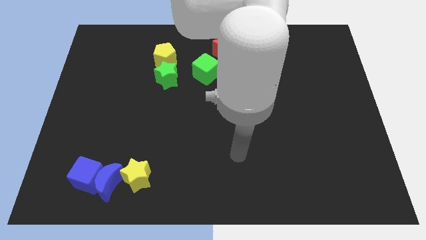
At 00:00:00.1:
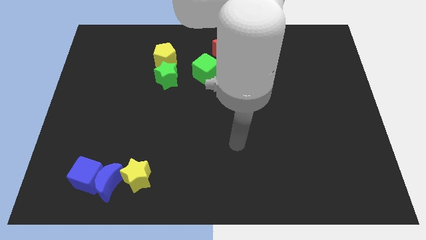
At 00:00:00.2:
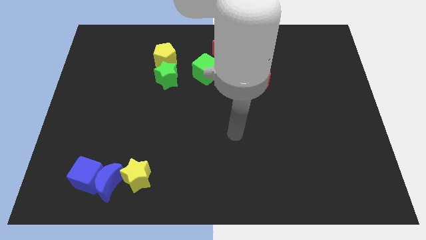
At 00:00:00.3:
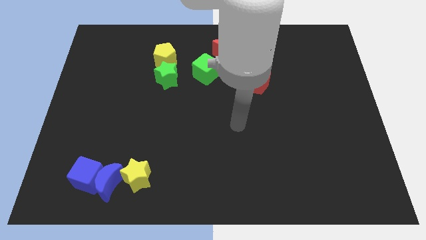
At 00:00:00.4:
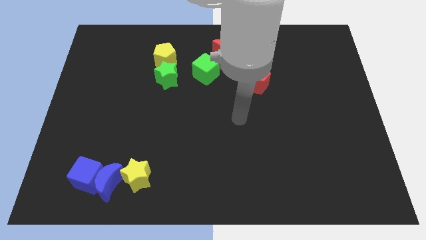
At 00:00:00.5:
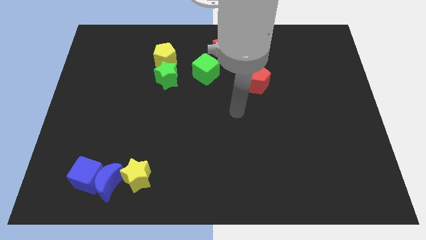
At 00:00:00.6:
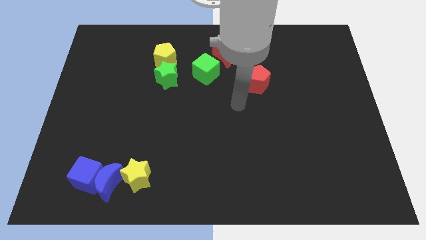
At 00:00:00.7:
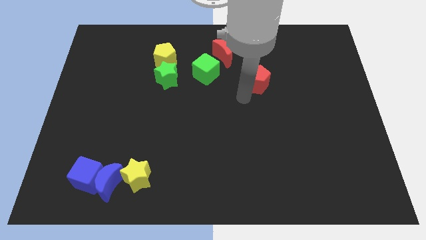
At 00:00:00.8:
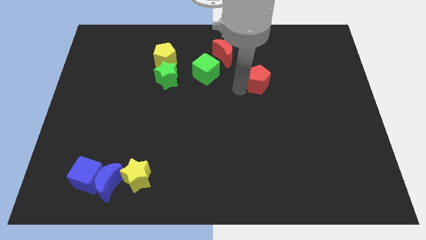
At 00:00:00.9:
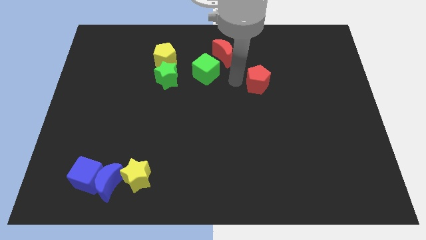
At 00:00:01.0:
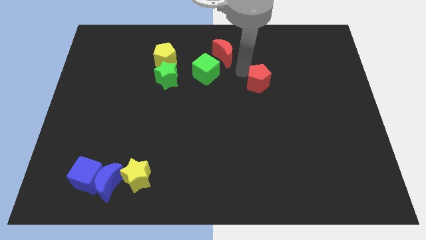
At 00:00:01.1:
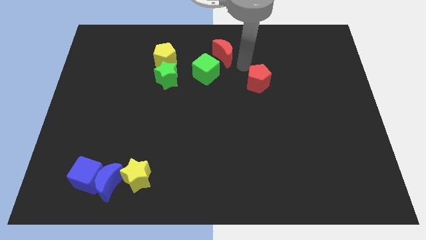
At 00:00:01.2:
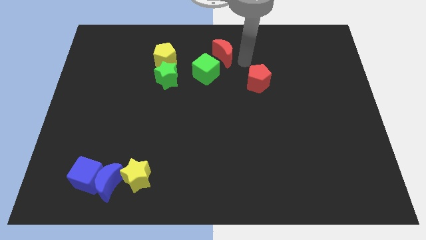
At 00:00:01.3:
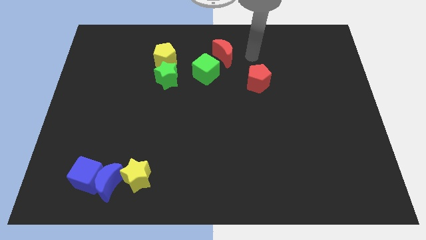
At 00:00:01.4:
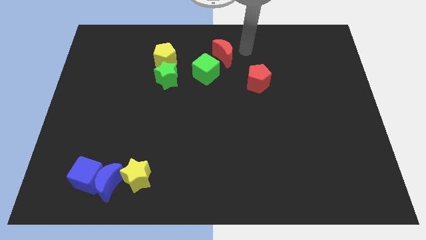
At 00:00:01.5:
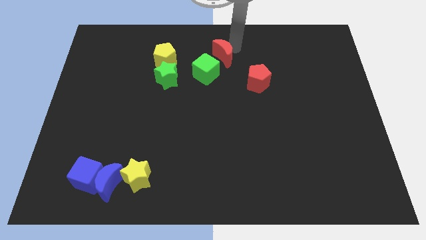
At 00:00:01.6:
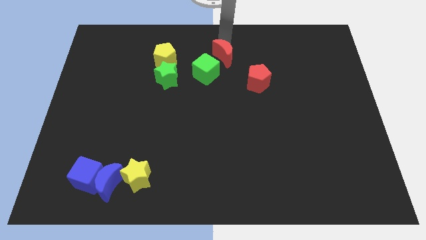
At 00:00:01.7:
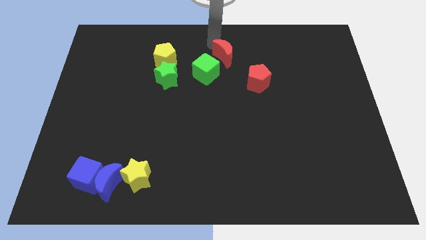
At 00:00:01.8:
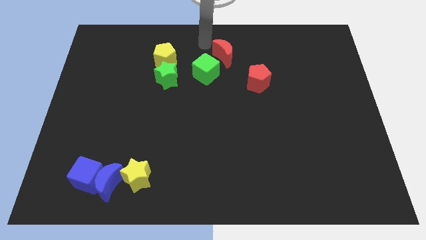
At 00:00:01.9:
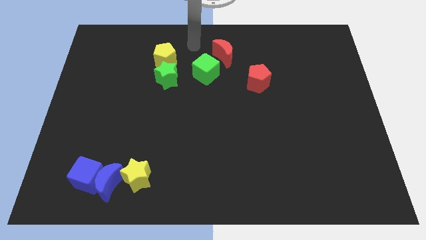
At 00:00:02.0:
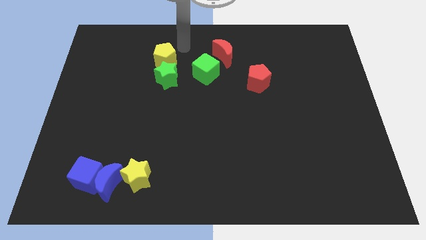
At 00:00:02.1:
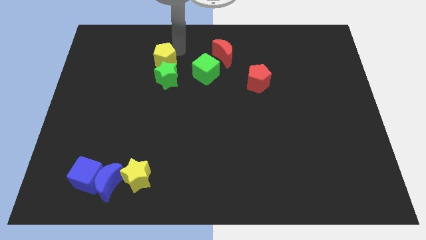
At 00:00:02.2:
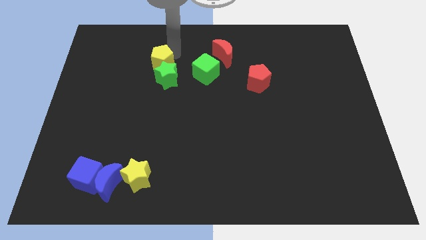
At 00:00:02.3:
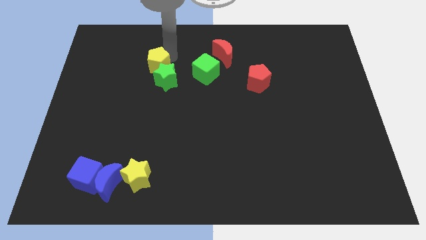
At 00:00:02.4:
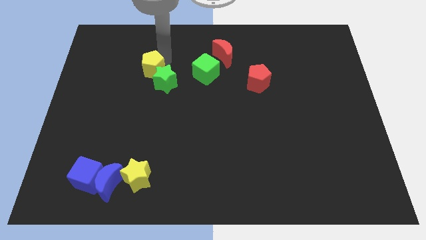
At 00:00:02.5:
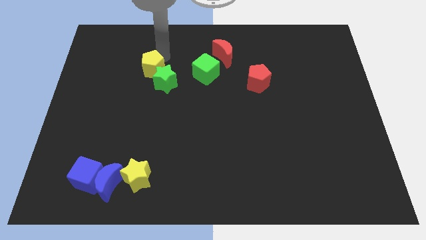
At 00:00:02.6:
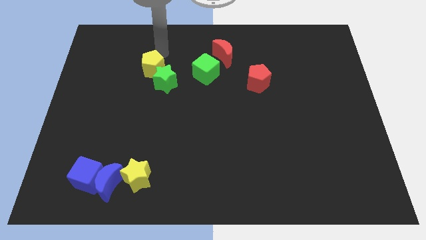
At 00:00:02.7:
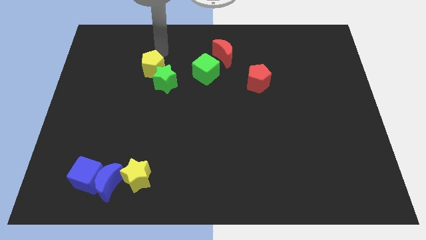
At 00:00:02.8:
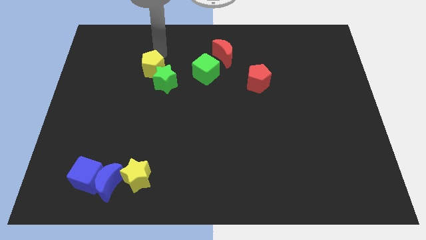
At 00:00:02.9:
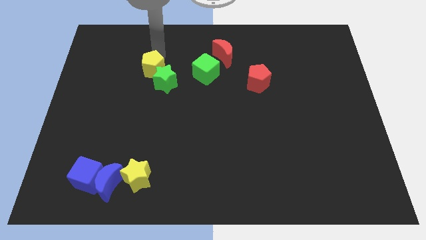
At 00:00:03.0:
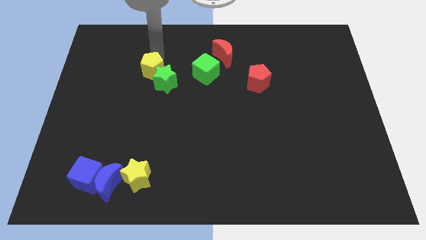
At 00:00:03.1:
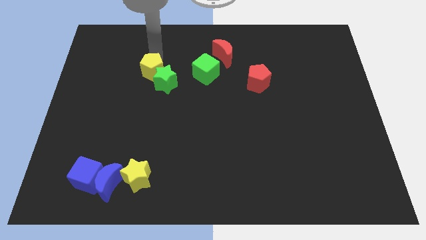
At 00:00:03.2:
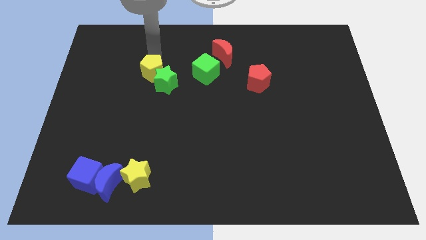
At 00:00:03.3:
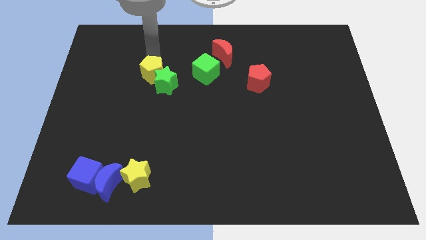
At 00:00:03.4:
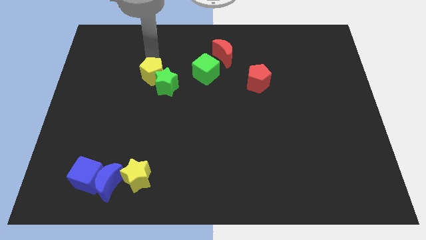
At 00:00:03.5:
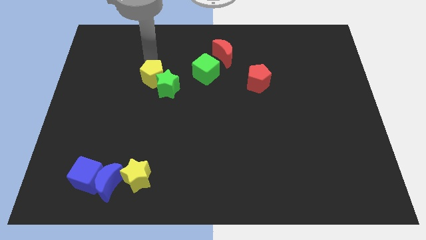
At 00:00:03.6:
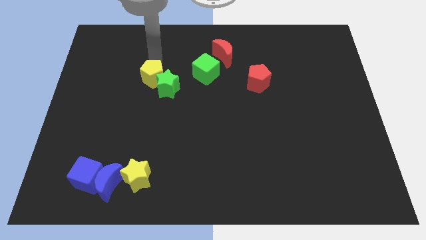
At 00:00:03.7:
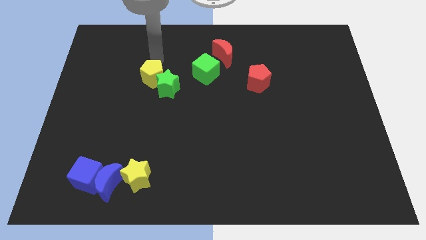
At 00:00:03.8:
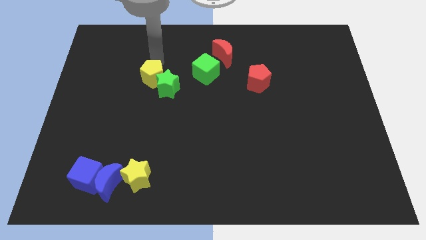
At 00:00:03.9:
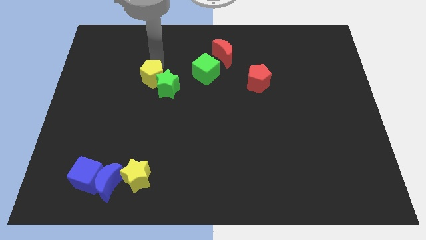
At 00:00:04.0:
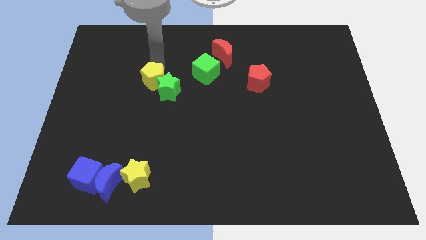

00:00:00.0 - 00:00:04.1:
move the yellow pentagon down somewhat

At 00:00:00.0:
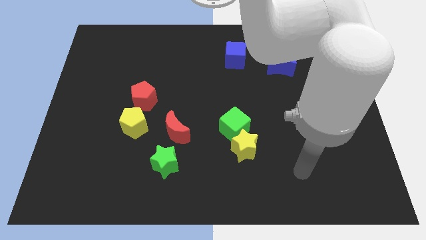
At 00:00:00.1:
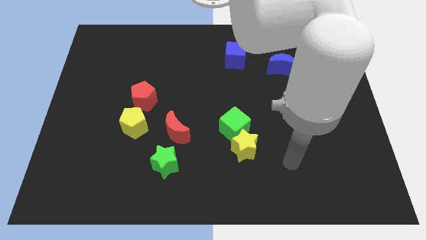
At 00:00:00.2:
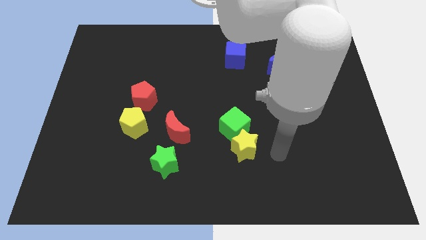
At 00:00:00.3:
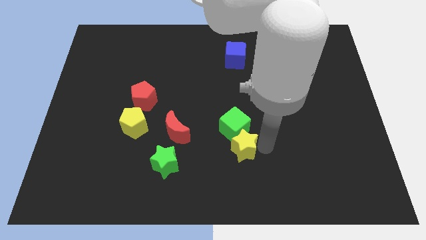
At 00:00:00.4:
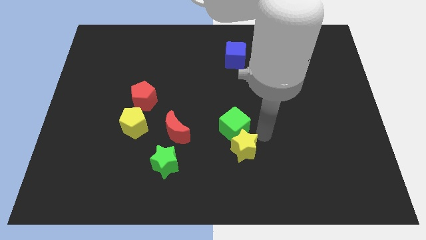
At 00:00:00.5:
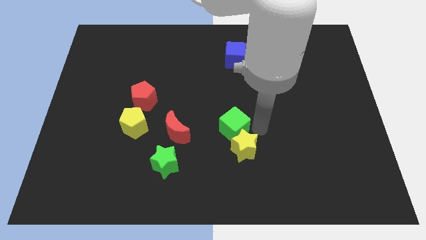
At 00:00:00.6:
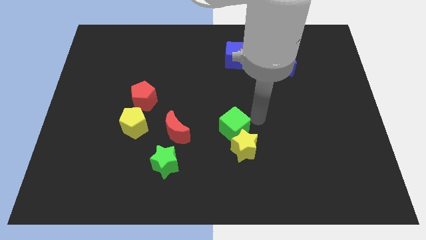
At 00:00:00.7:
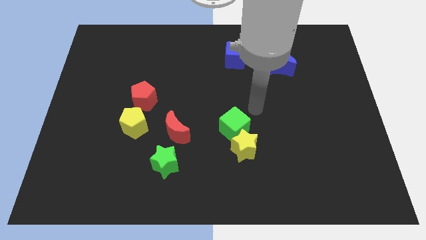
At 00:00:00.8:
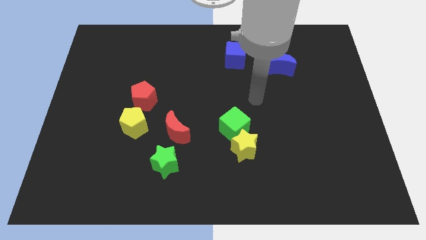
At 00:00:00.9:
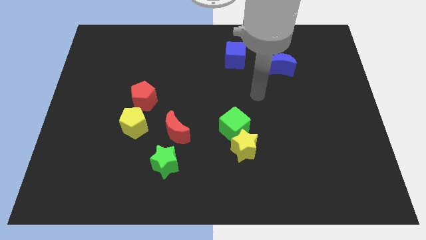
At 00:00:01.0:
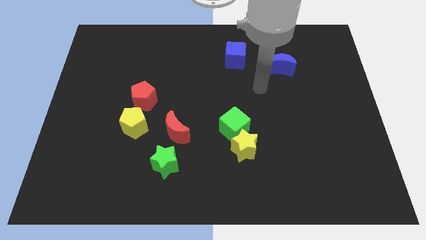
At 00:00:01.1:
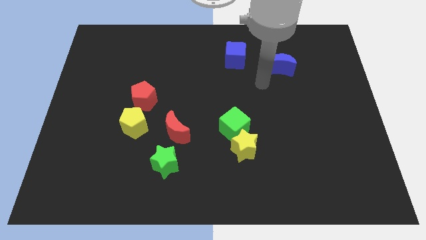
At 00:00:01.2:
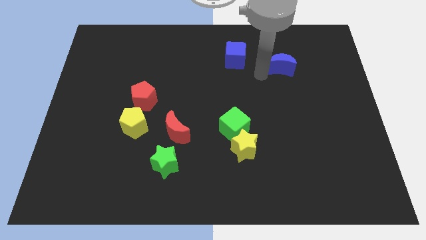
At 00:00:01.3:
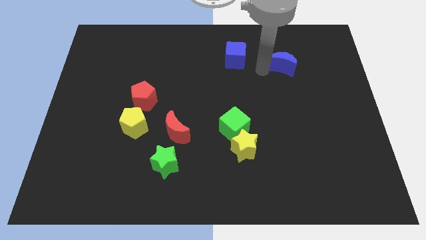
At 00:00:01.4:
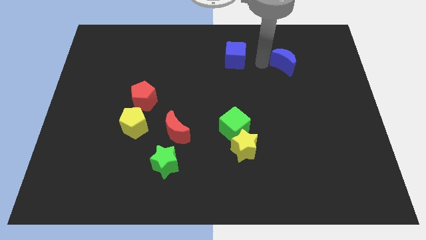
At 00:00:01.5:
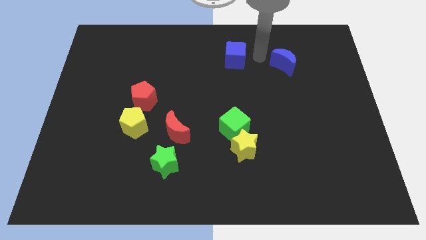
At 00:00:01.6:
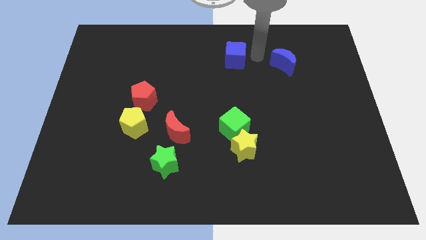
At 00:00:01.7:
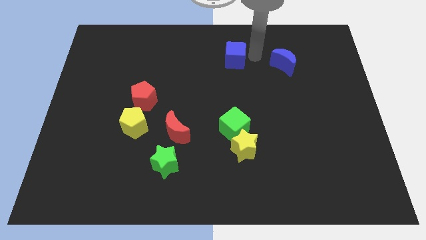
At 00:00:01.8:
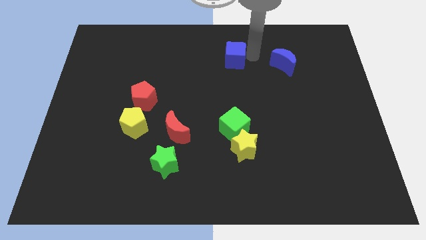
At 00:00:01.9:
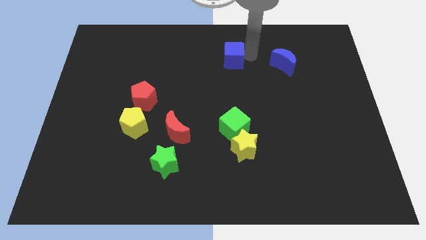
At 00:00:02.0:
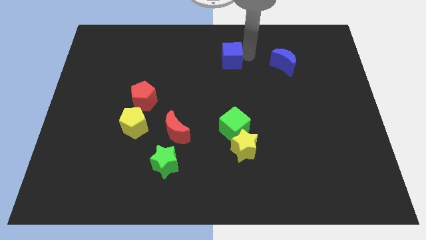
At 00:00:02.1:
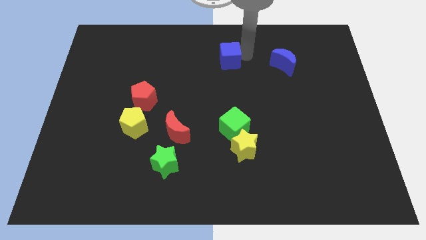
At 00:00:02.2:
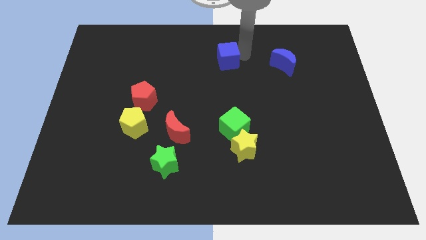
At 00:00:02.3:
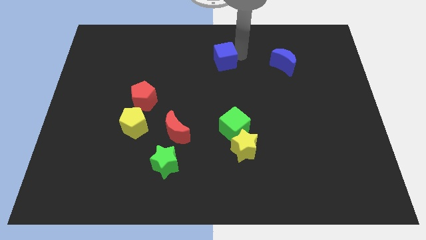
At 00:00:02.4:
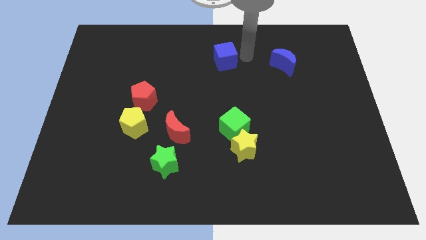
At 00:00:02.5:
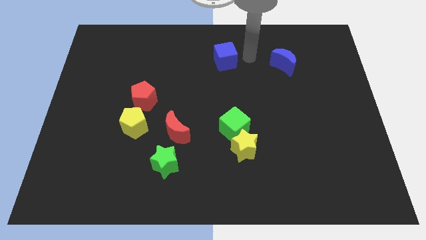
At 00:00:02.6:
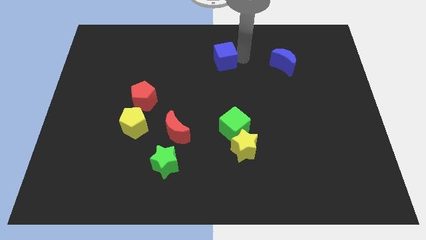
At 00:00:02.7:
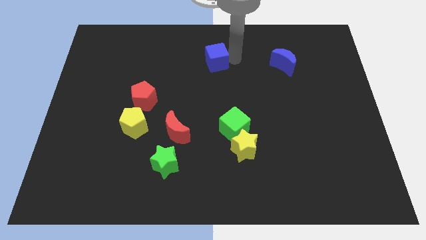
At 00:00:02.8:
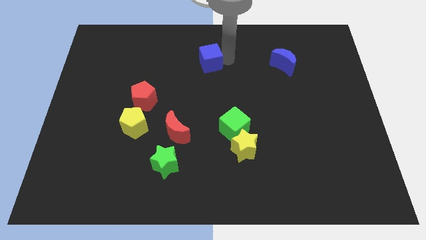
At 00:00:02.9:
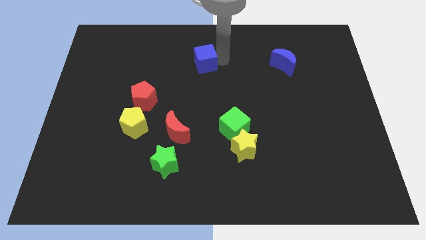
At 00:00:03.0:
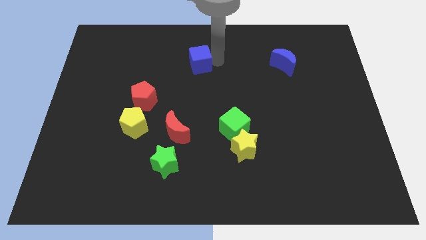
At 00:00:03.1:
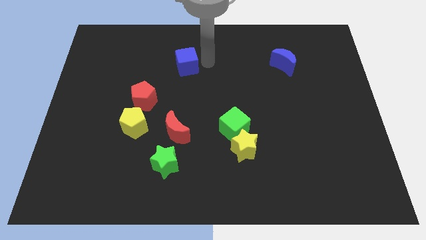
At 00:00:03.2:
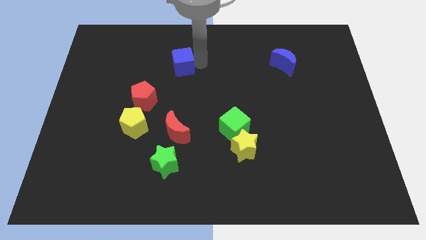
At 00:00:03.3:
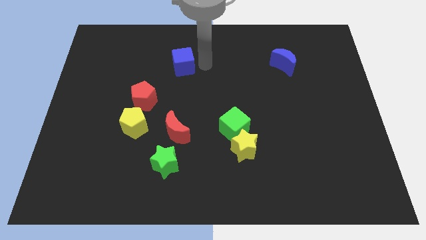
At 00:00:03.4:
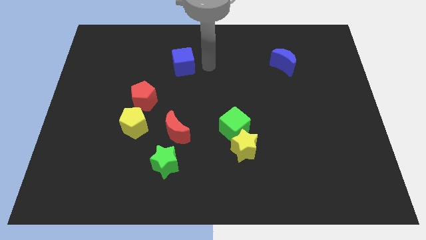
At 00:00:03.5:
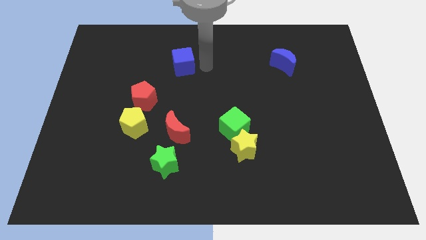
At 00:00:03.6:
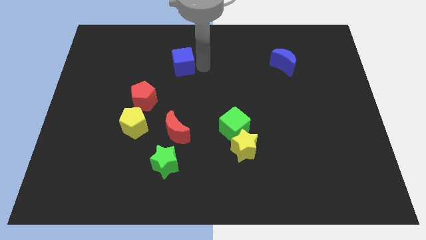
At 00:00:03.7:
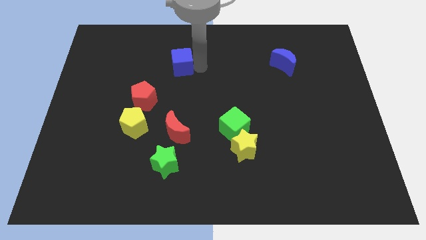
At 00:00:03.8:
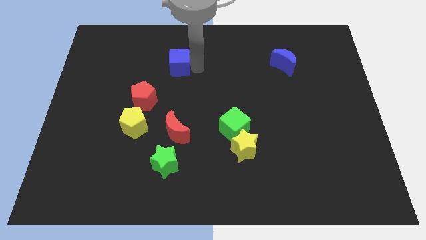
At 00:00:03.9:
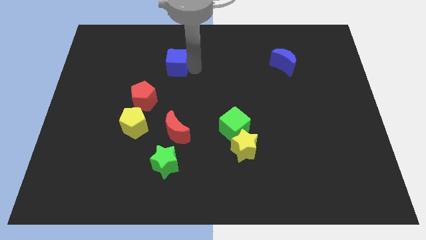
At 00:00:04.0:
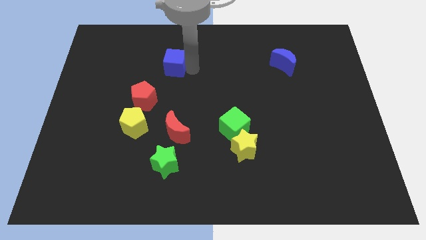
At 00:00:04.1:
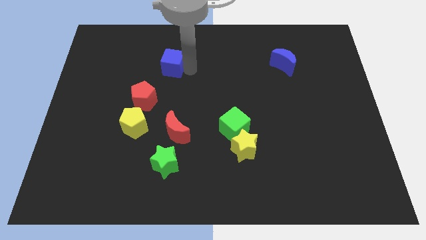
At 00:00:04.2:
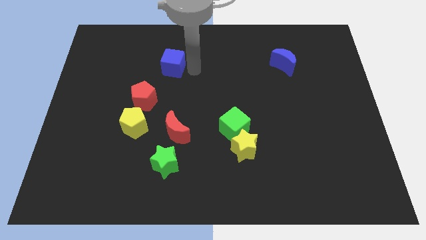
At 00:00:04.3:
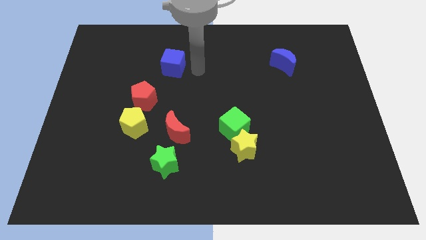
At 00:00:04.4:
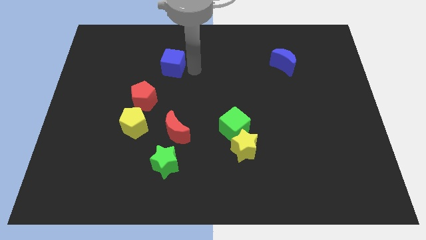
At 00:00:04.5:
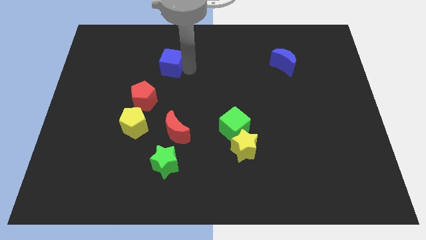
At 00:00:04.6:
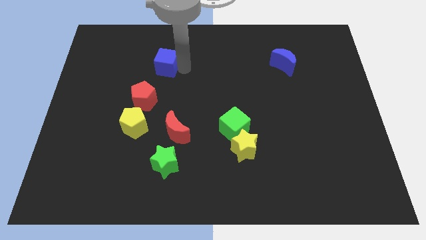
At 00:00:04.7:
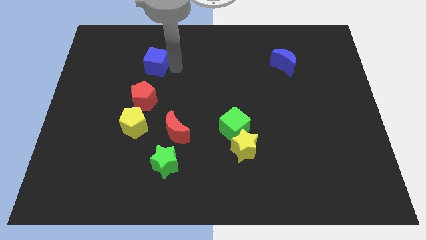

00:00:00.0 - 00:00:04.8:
move the blue cube to the left
